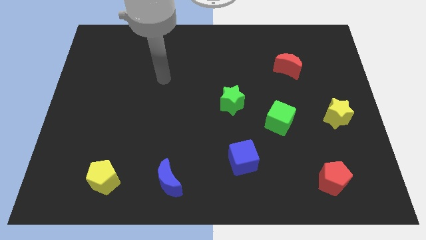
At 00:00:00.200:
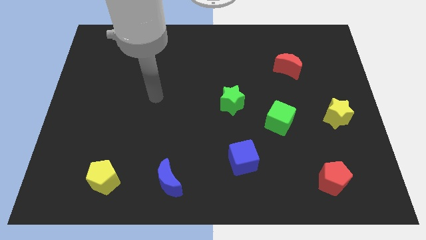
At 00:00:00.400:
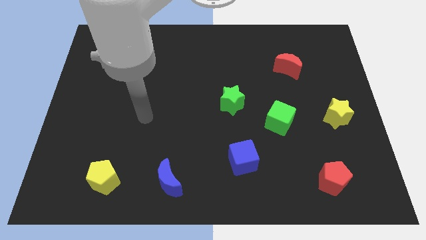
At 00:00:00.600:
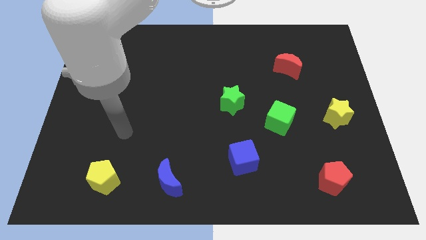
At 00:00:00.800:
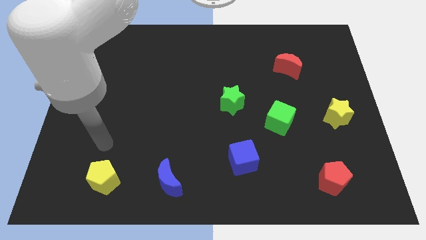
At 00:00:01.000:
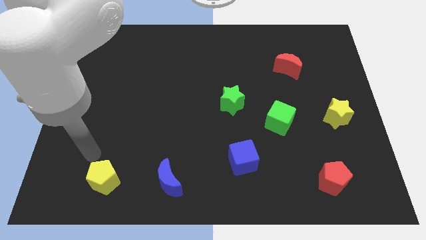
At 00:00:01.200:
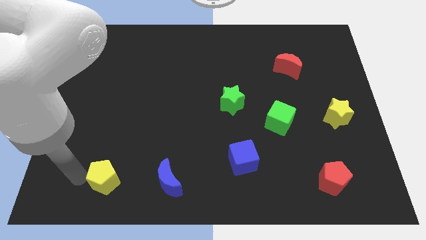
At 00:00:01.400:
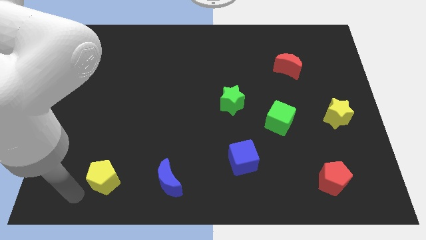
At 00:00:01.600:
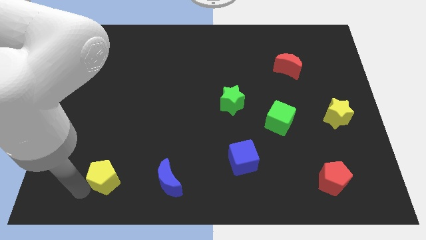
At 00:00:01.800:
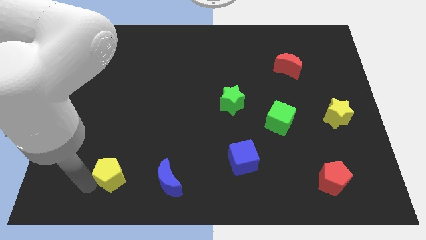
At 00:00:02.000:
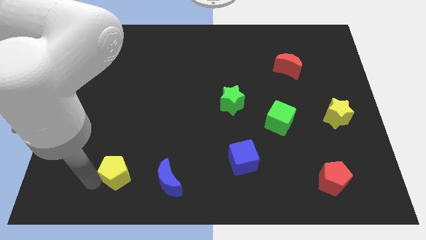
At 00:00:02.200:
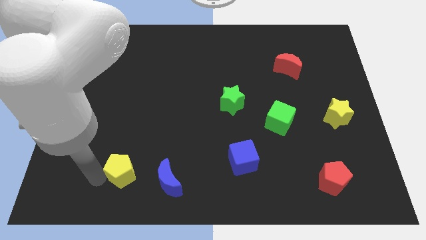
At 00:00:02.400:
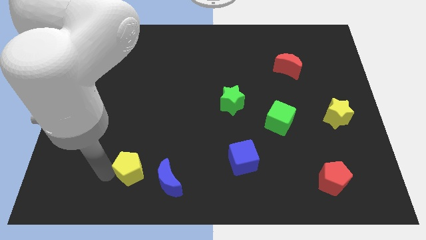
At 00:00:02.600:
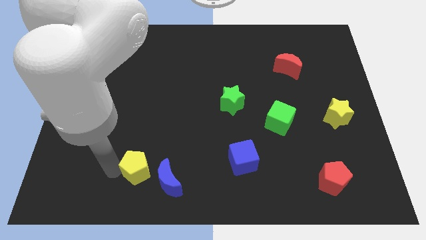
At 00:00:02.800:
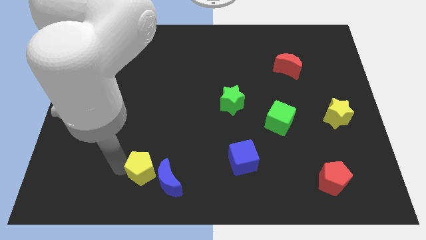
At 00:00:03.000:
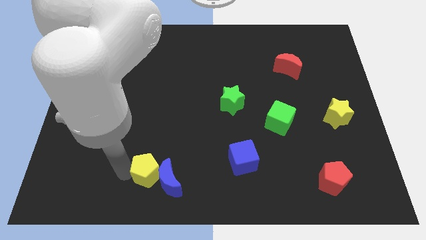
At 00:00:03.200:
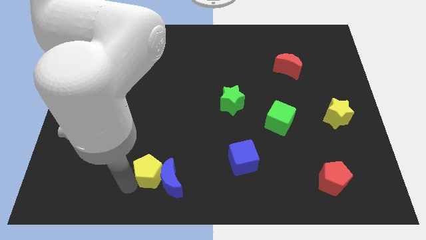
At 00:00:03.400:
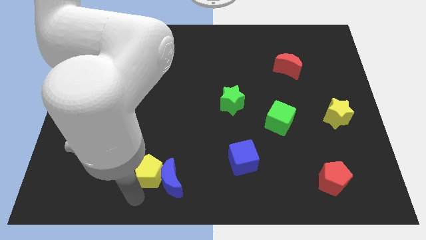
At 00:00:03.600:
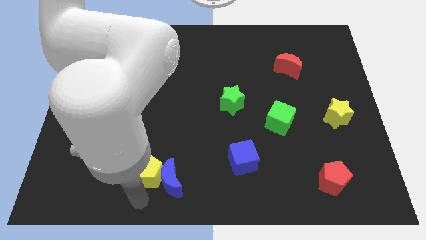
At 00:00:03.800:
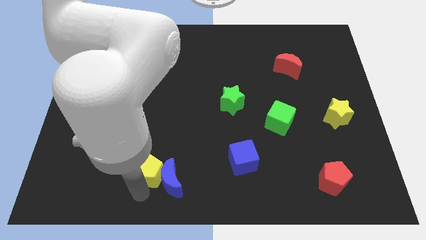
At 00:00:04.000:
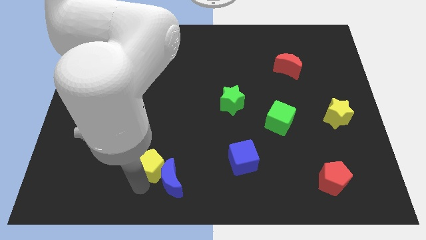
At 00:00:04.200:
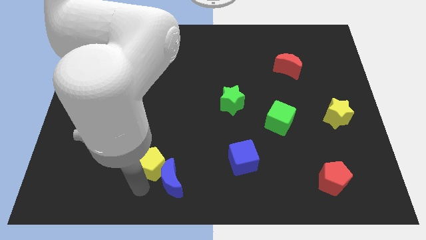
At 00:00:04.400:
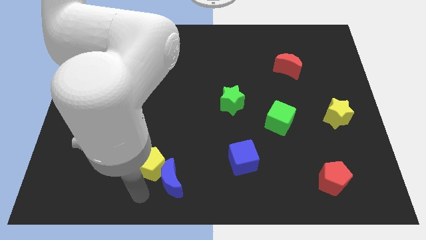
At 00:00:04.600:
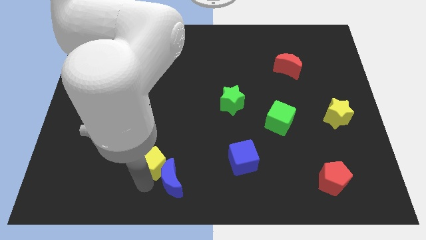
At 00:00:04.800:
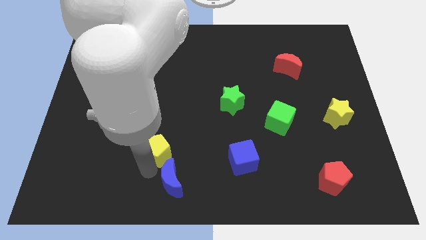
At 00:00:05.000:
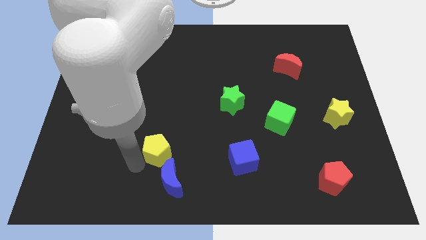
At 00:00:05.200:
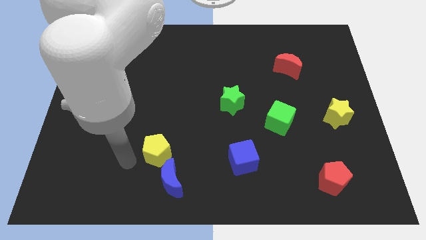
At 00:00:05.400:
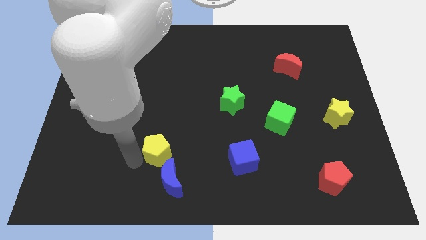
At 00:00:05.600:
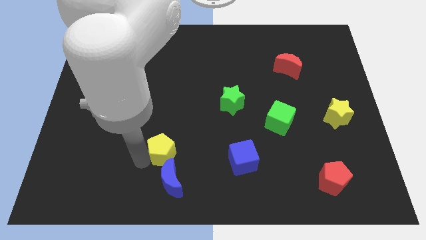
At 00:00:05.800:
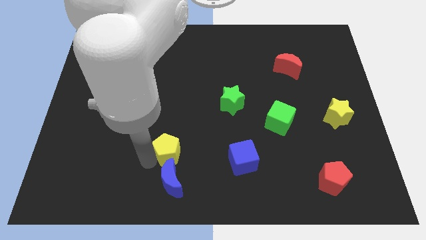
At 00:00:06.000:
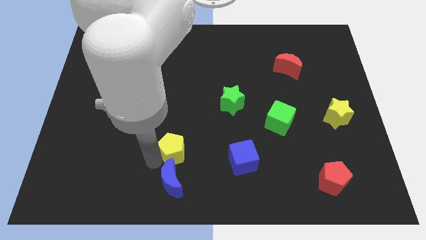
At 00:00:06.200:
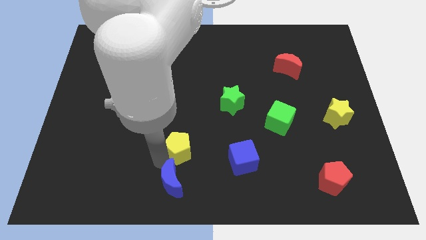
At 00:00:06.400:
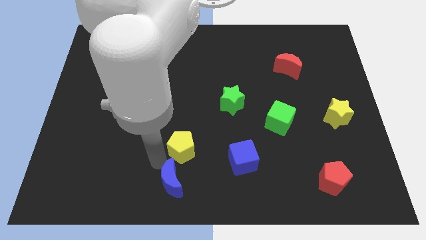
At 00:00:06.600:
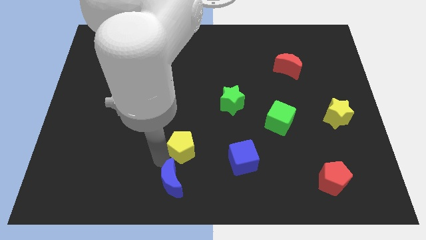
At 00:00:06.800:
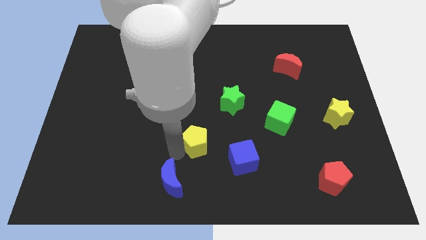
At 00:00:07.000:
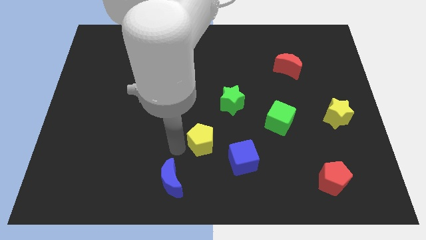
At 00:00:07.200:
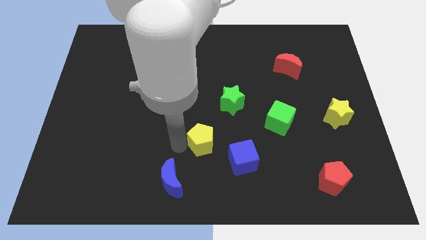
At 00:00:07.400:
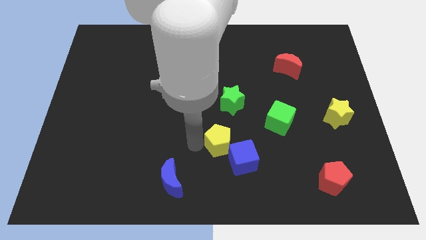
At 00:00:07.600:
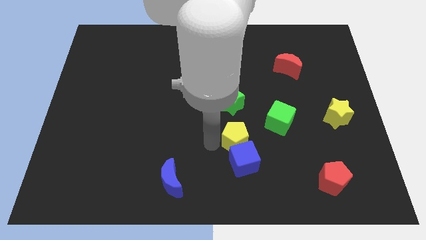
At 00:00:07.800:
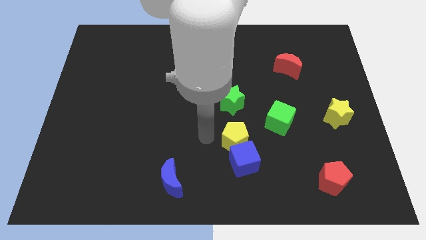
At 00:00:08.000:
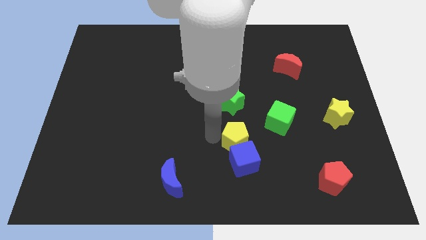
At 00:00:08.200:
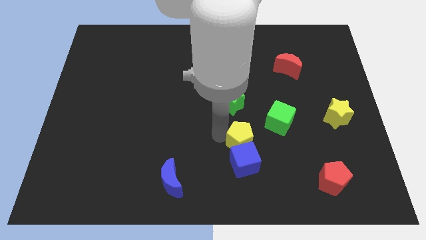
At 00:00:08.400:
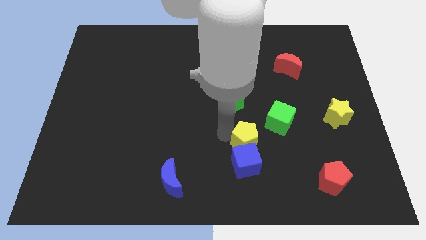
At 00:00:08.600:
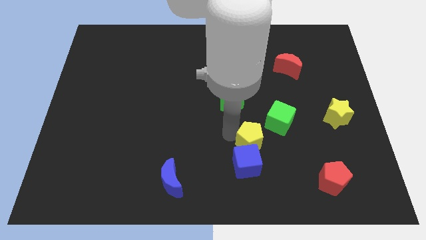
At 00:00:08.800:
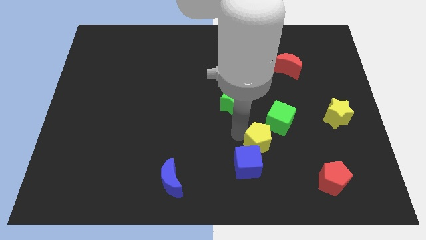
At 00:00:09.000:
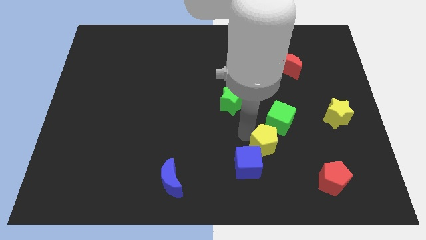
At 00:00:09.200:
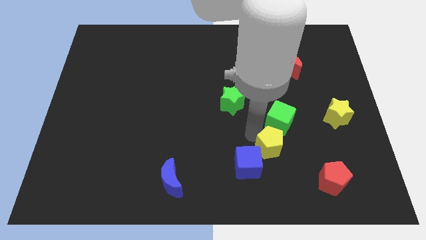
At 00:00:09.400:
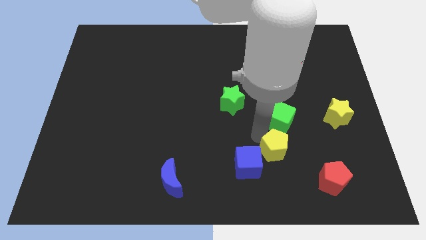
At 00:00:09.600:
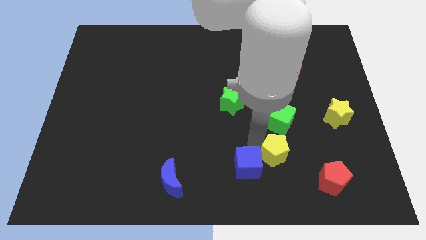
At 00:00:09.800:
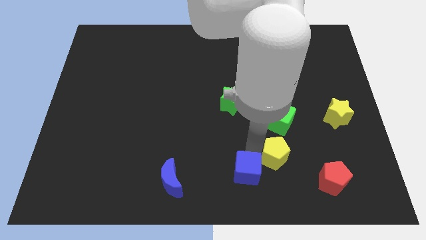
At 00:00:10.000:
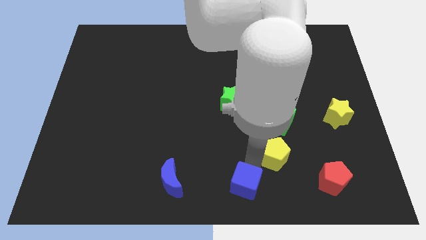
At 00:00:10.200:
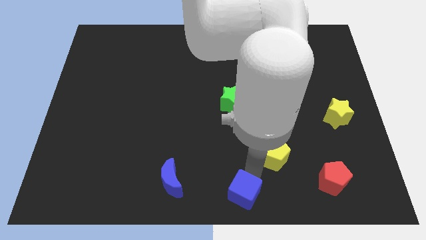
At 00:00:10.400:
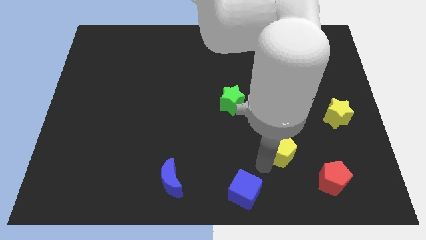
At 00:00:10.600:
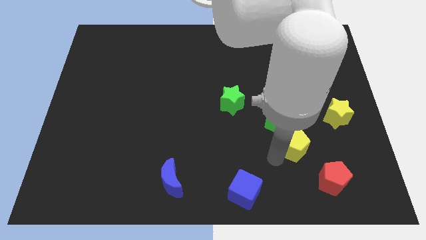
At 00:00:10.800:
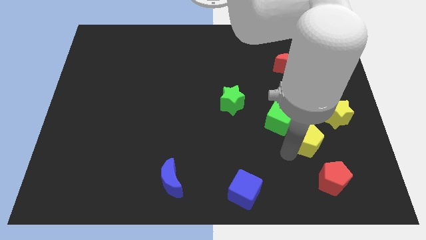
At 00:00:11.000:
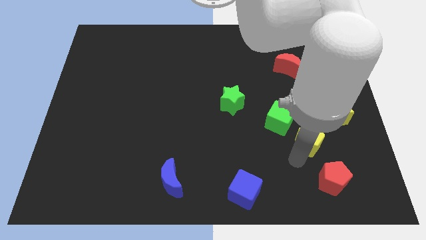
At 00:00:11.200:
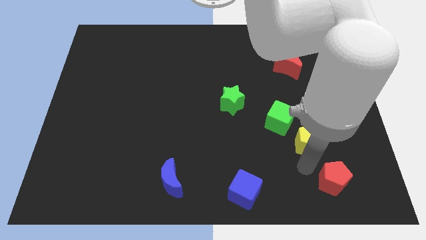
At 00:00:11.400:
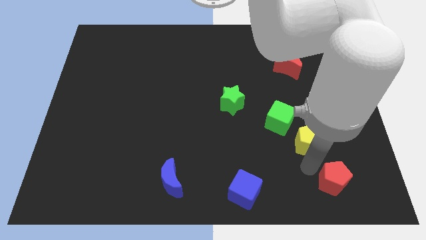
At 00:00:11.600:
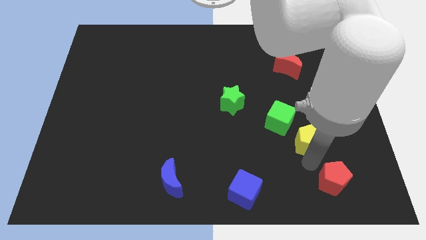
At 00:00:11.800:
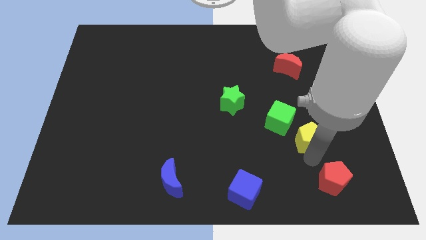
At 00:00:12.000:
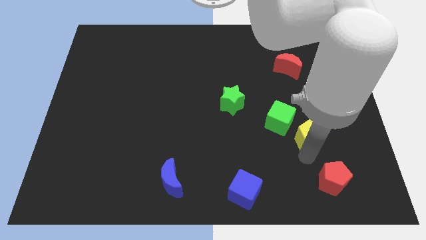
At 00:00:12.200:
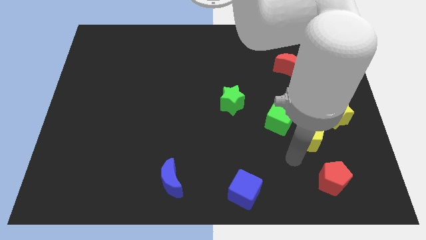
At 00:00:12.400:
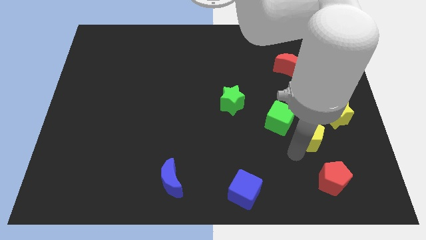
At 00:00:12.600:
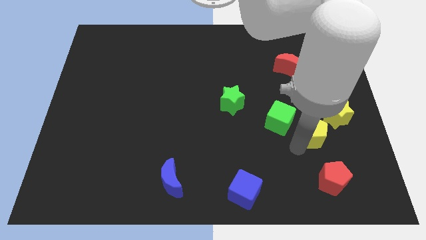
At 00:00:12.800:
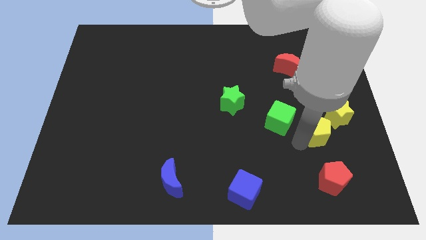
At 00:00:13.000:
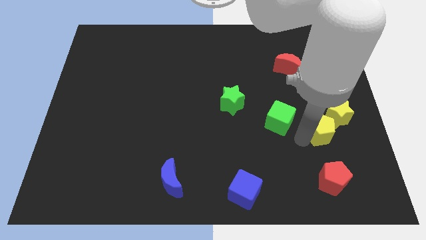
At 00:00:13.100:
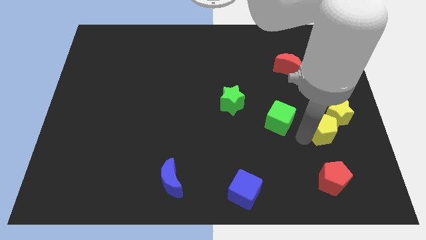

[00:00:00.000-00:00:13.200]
slide the yellow pentagon towards the yellow star

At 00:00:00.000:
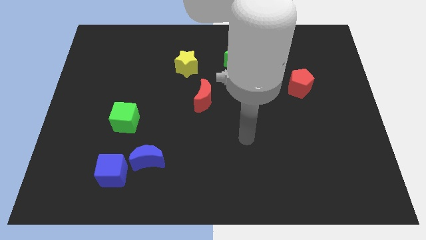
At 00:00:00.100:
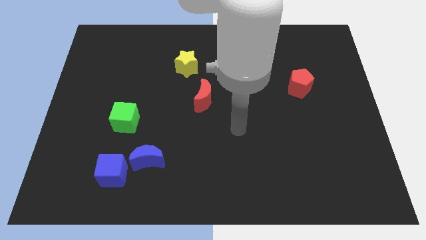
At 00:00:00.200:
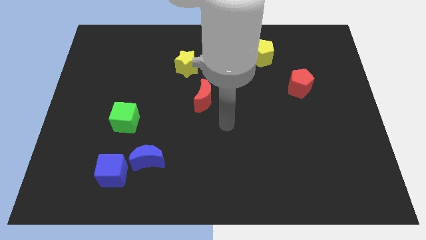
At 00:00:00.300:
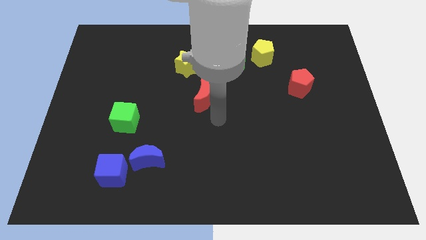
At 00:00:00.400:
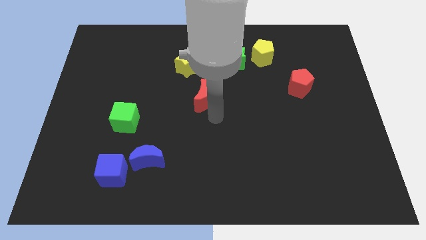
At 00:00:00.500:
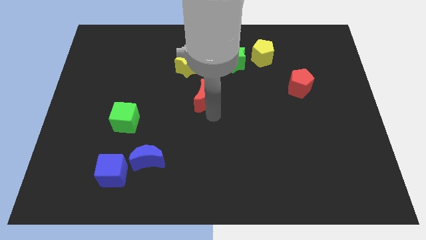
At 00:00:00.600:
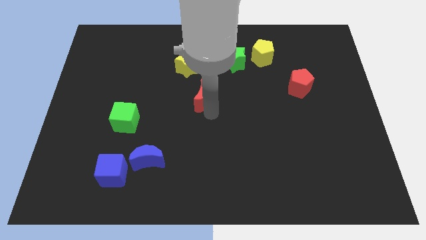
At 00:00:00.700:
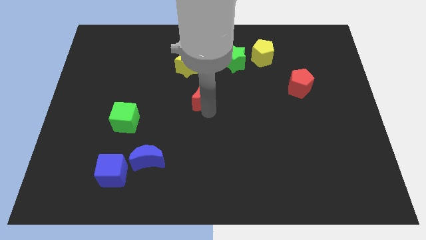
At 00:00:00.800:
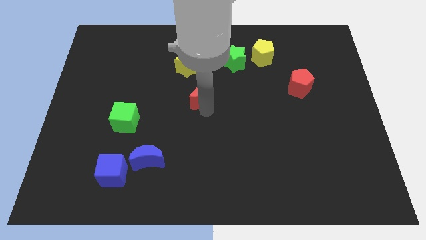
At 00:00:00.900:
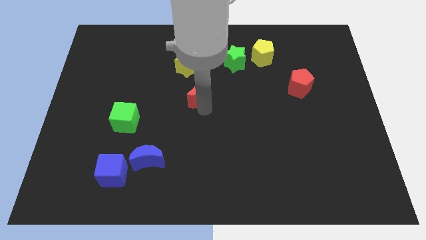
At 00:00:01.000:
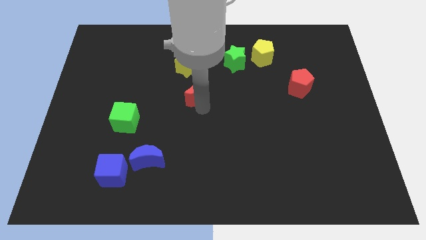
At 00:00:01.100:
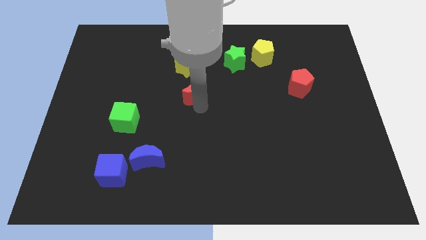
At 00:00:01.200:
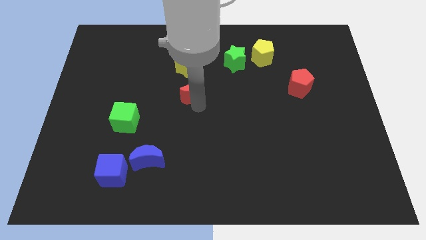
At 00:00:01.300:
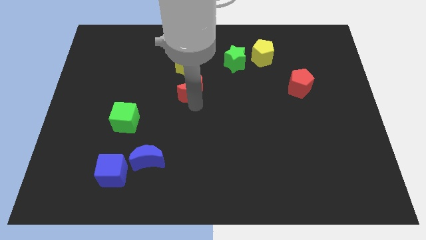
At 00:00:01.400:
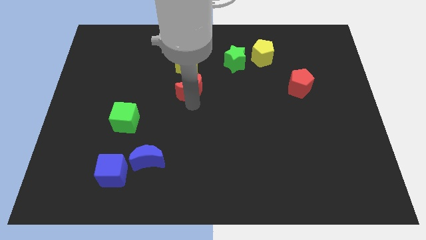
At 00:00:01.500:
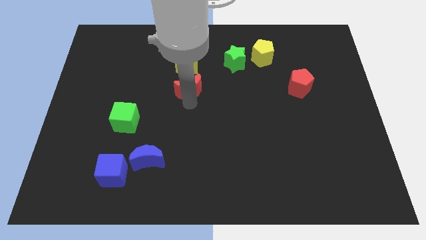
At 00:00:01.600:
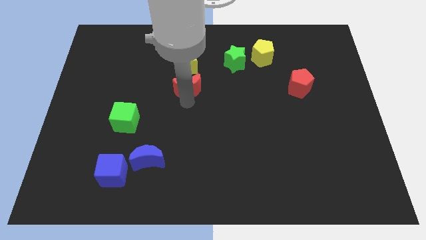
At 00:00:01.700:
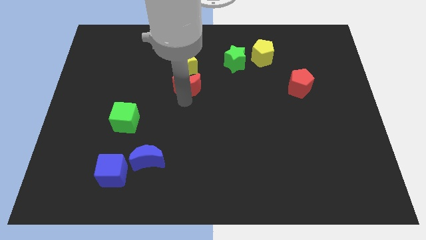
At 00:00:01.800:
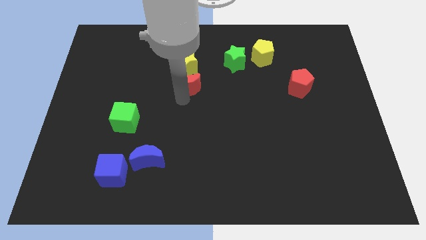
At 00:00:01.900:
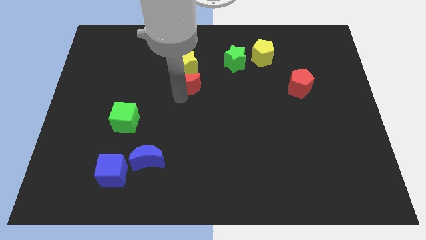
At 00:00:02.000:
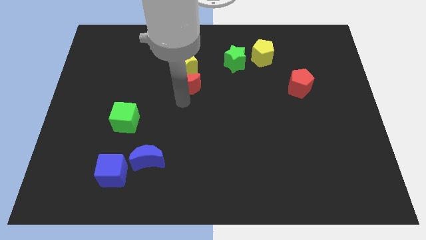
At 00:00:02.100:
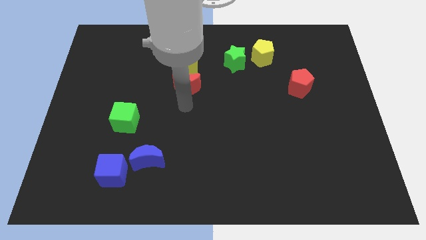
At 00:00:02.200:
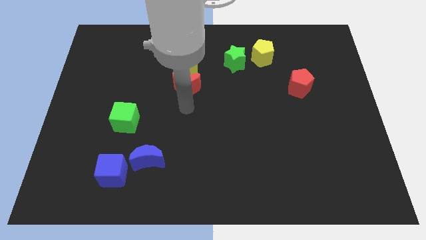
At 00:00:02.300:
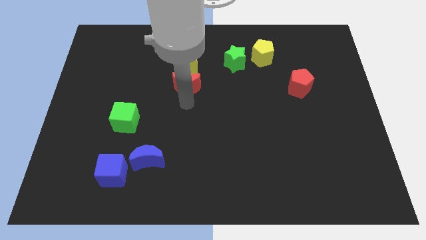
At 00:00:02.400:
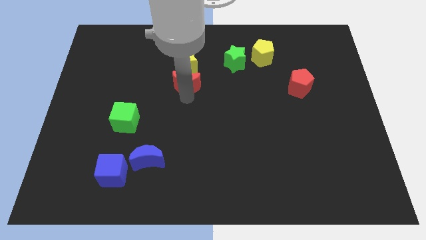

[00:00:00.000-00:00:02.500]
move the red moon to the yellow star
